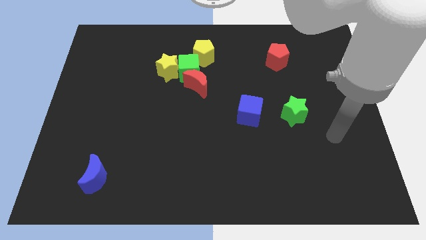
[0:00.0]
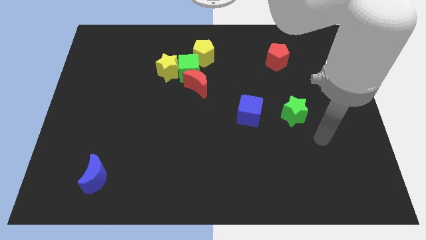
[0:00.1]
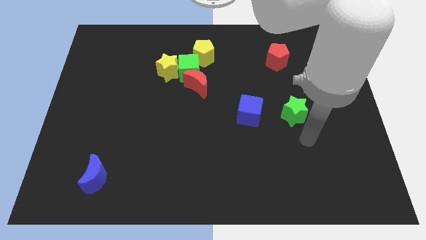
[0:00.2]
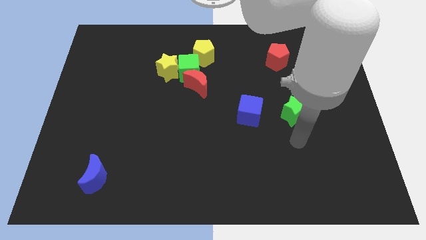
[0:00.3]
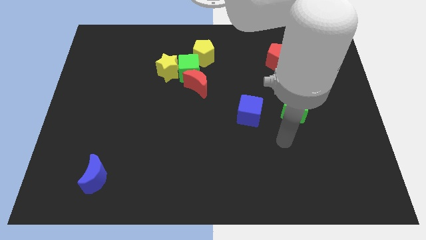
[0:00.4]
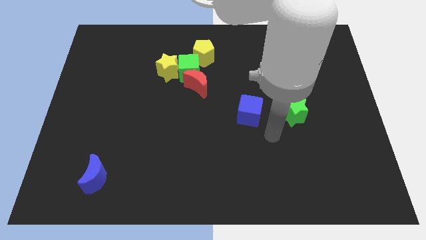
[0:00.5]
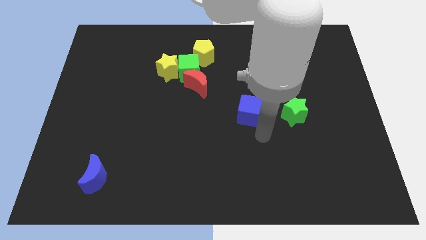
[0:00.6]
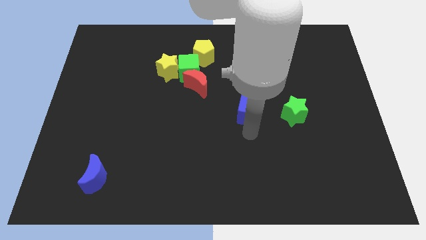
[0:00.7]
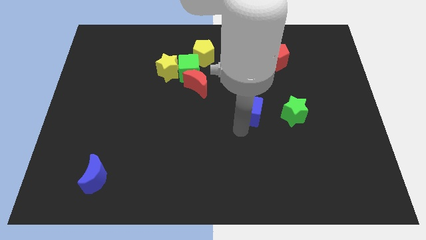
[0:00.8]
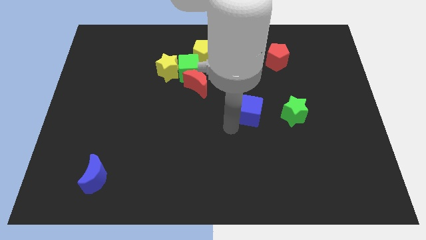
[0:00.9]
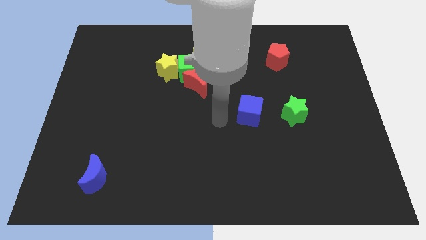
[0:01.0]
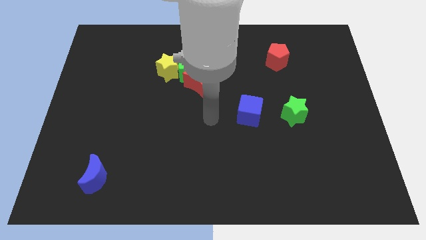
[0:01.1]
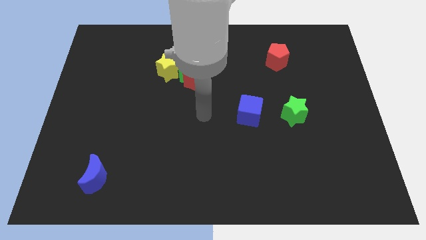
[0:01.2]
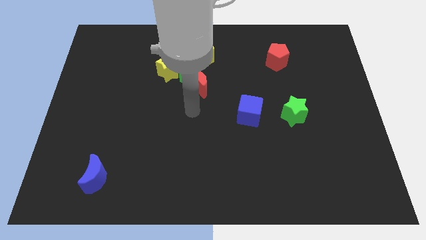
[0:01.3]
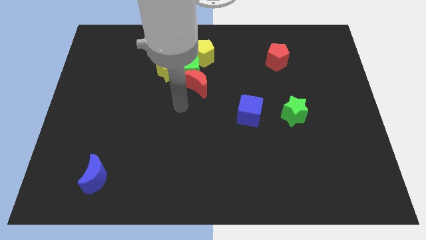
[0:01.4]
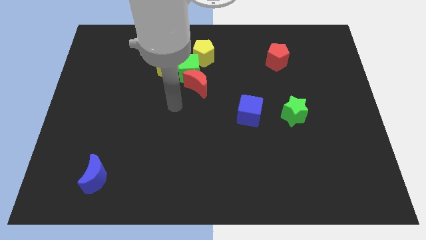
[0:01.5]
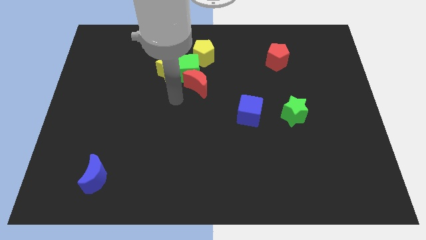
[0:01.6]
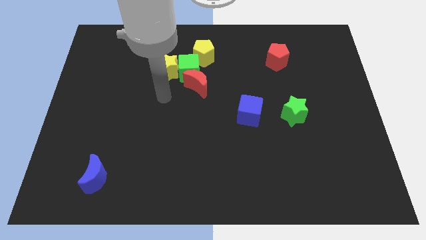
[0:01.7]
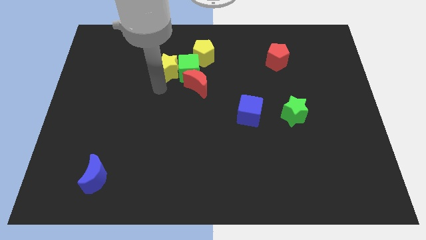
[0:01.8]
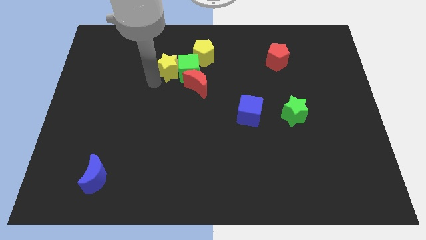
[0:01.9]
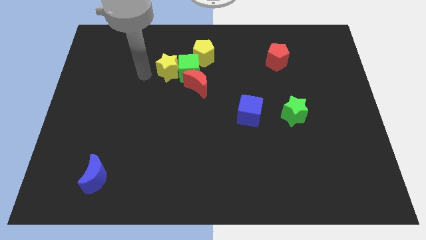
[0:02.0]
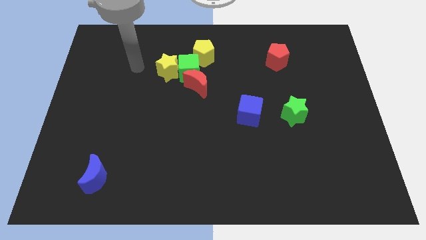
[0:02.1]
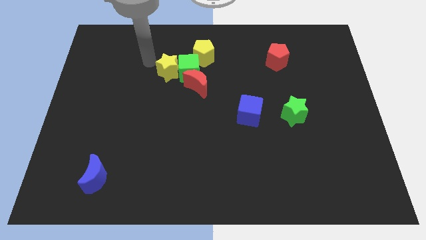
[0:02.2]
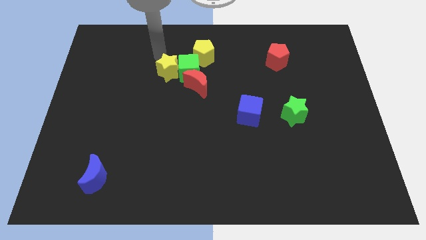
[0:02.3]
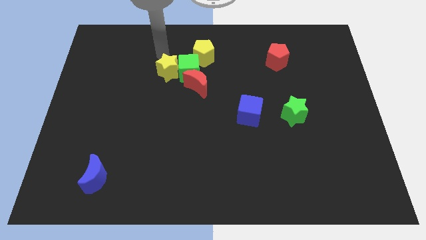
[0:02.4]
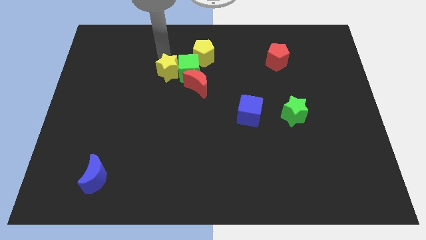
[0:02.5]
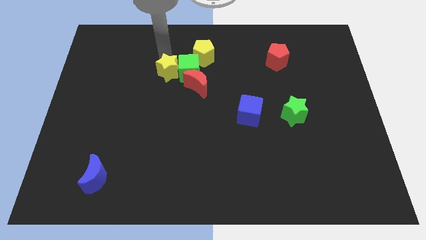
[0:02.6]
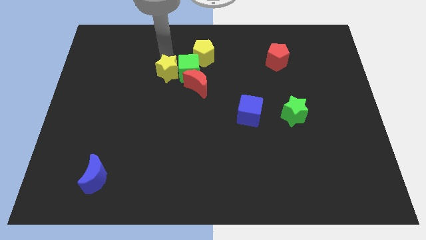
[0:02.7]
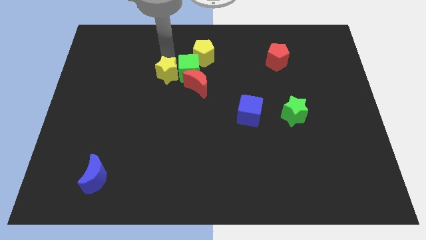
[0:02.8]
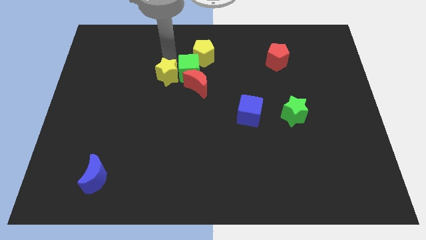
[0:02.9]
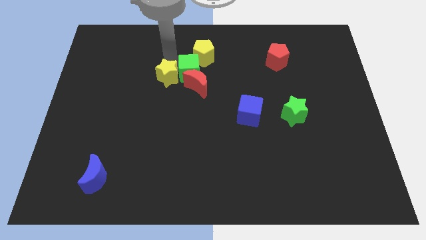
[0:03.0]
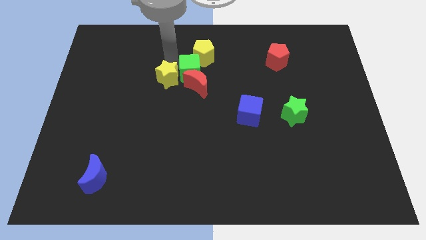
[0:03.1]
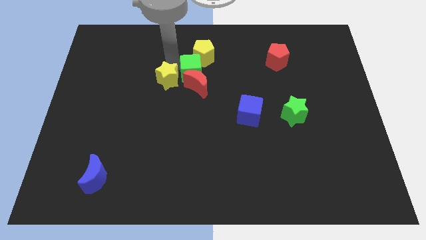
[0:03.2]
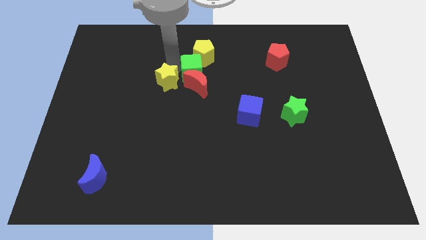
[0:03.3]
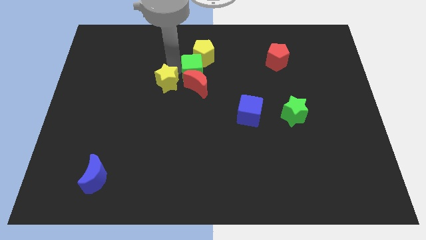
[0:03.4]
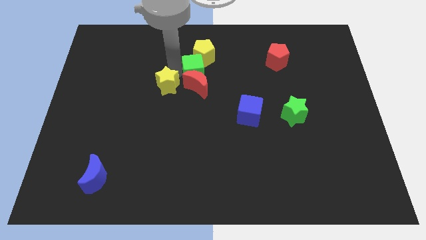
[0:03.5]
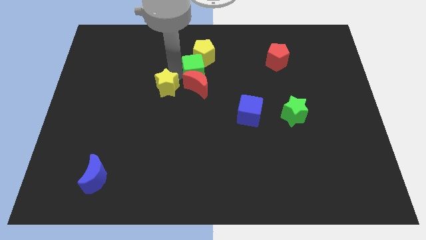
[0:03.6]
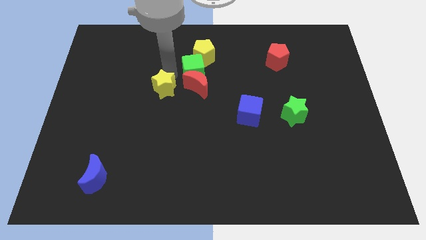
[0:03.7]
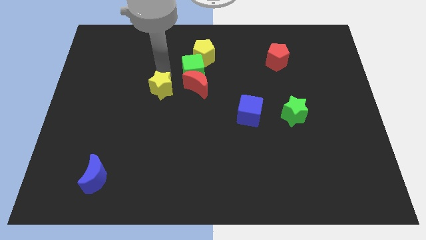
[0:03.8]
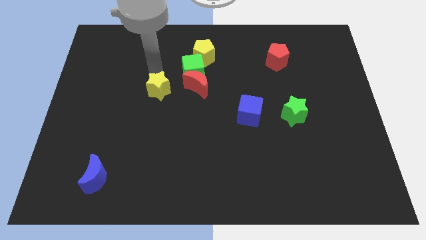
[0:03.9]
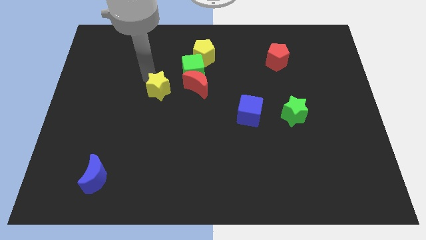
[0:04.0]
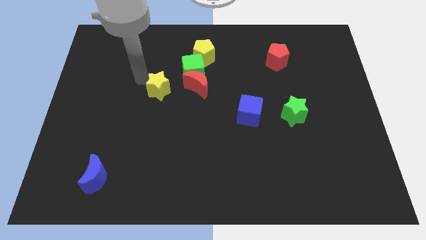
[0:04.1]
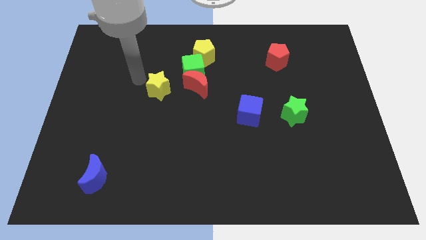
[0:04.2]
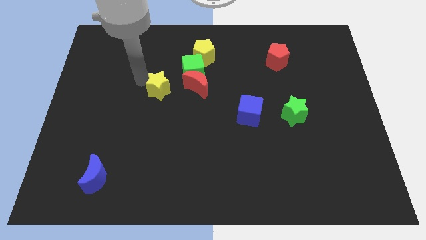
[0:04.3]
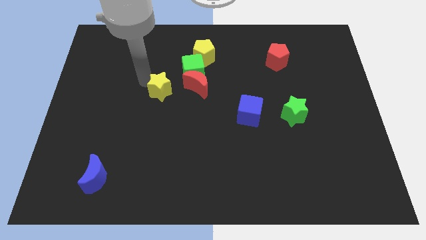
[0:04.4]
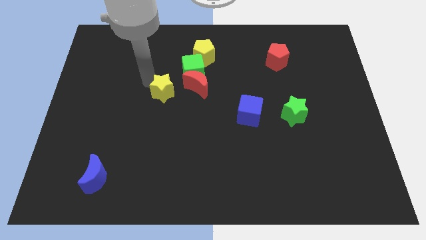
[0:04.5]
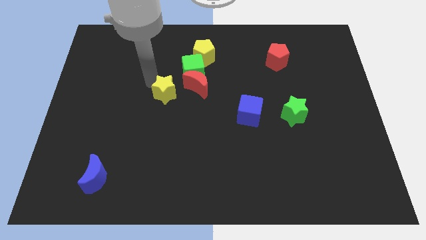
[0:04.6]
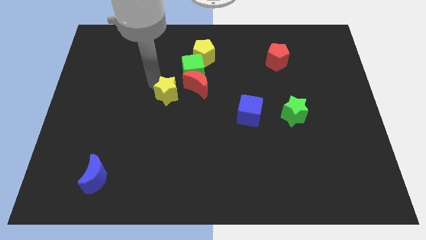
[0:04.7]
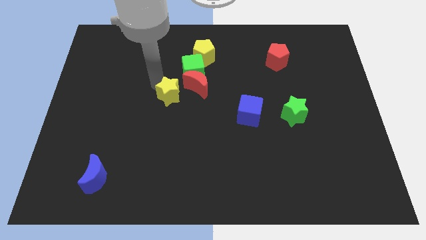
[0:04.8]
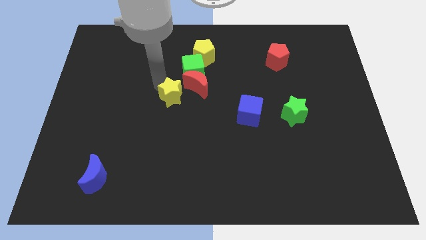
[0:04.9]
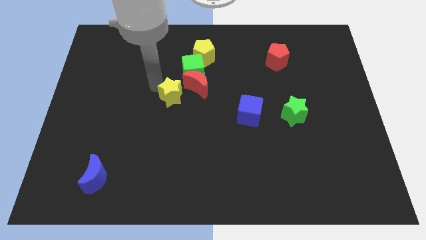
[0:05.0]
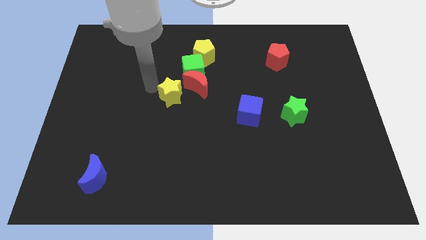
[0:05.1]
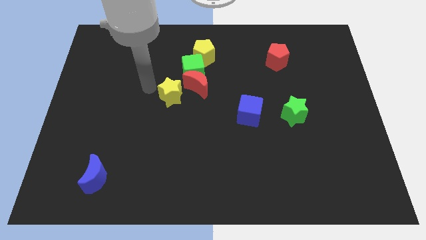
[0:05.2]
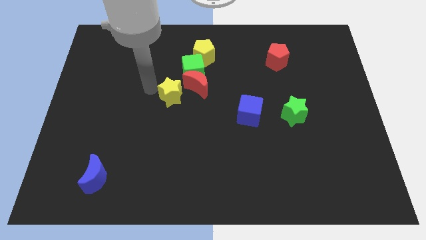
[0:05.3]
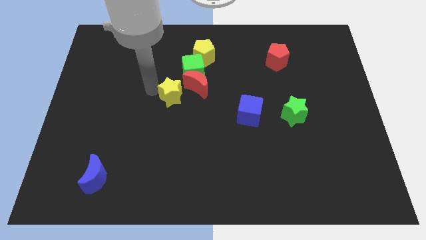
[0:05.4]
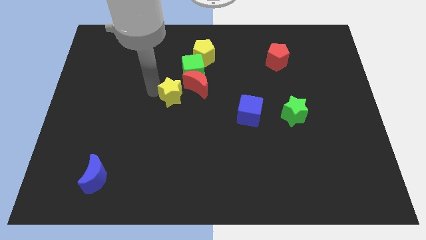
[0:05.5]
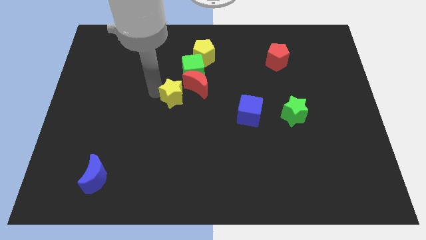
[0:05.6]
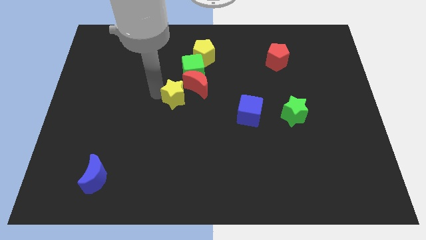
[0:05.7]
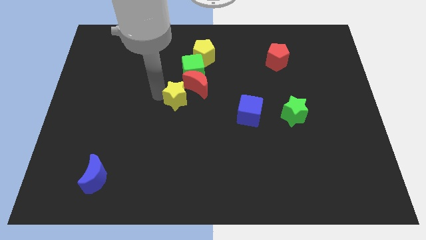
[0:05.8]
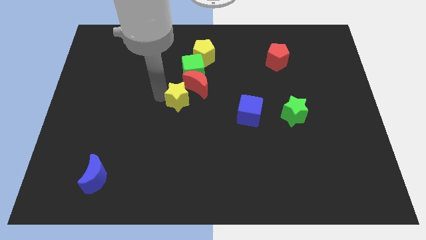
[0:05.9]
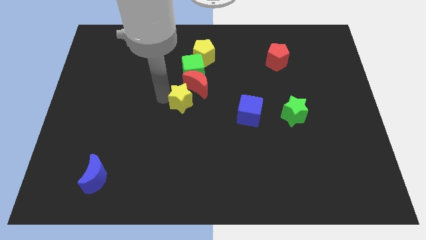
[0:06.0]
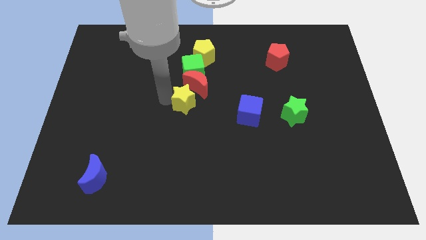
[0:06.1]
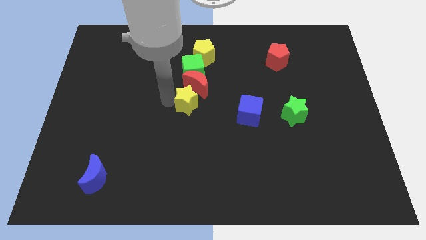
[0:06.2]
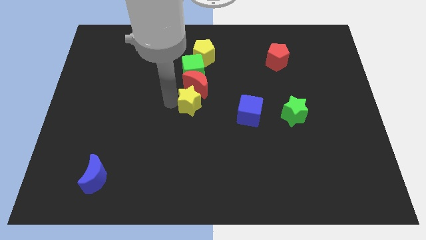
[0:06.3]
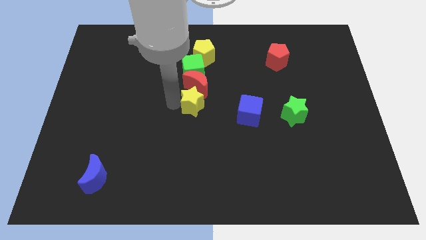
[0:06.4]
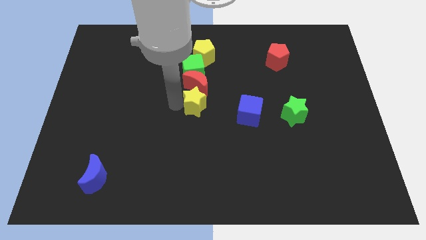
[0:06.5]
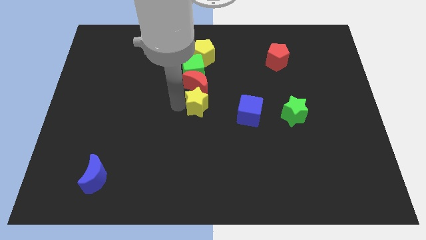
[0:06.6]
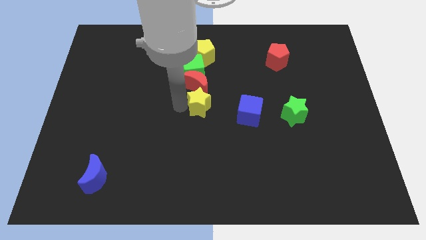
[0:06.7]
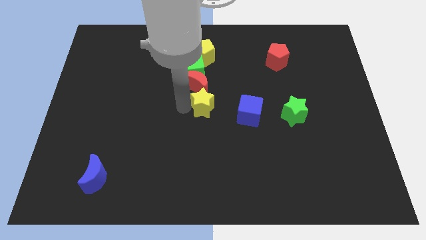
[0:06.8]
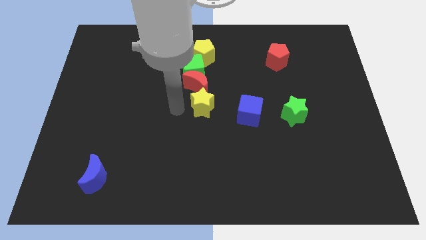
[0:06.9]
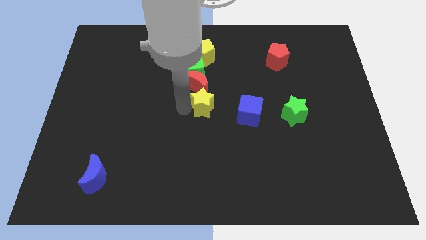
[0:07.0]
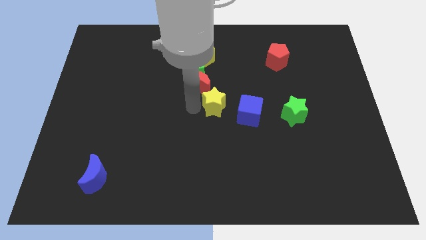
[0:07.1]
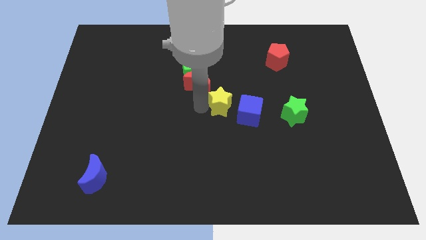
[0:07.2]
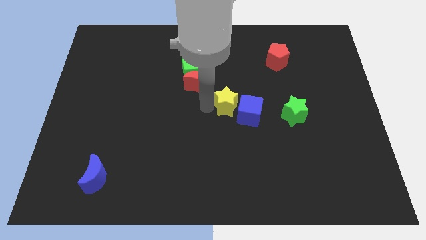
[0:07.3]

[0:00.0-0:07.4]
push the yellow star to the blue cube
